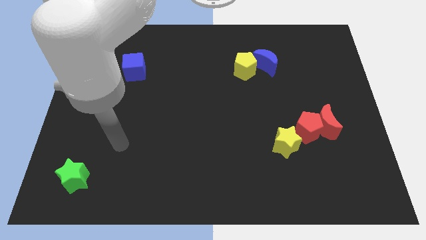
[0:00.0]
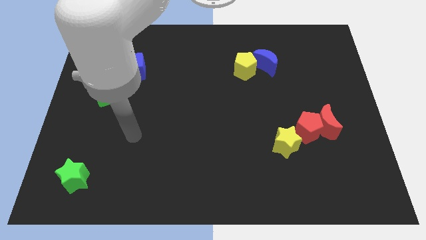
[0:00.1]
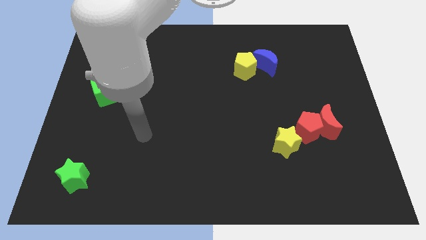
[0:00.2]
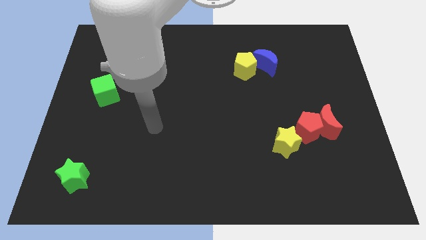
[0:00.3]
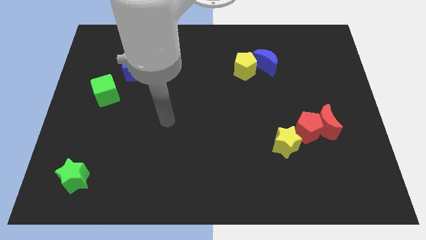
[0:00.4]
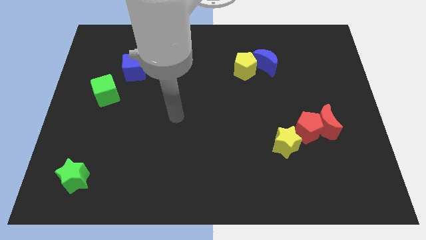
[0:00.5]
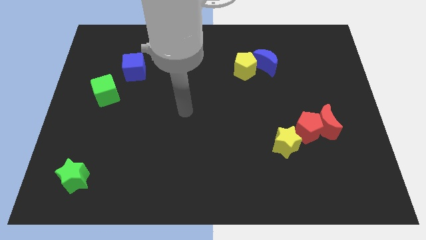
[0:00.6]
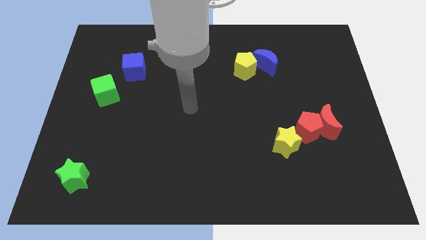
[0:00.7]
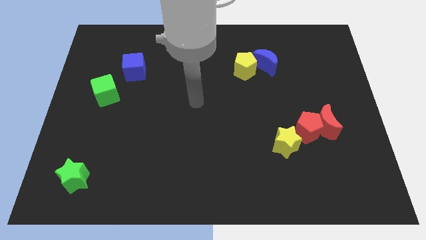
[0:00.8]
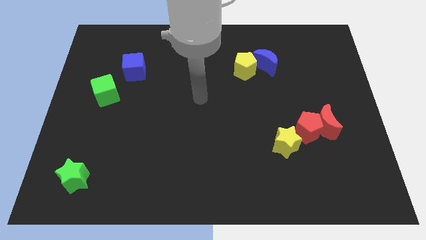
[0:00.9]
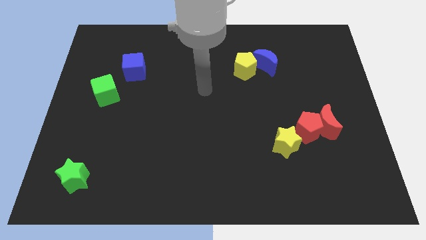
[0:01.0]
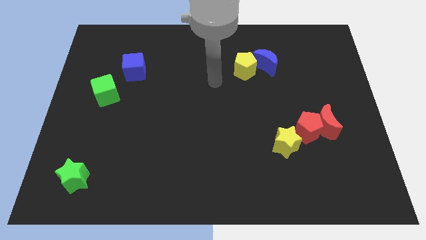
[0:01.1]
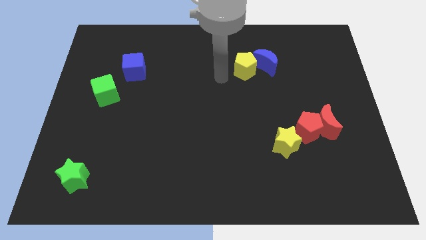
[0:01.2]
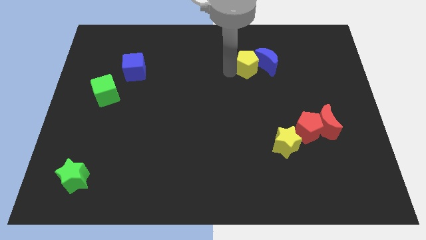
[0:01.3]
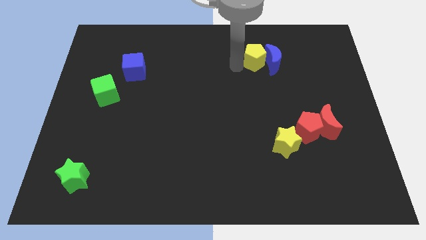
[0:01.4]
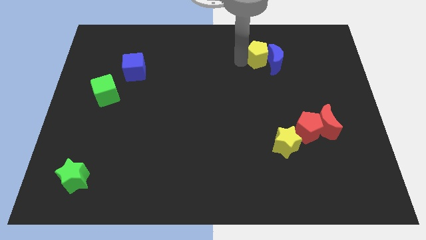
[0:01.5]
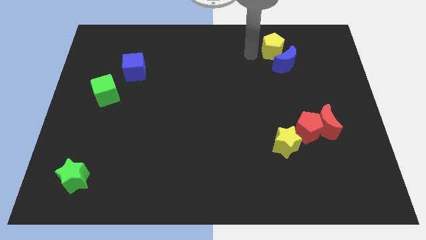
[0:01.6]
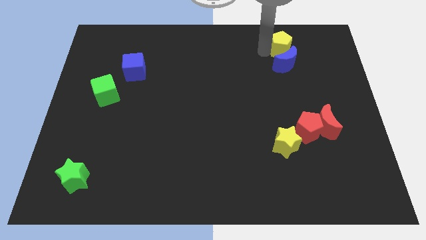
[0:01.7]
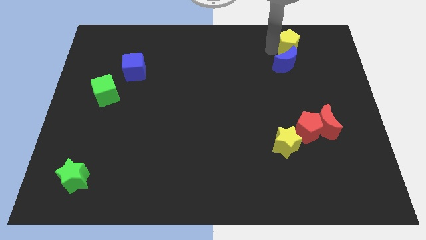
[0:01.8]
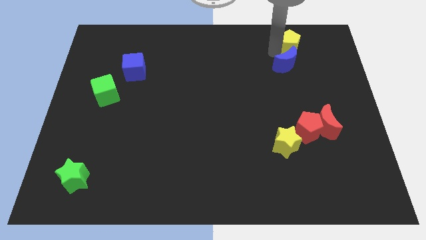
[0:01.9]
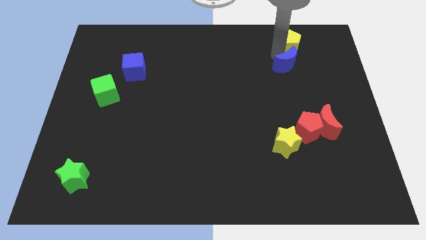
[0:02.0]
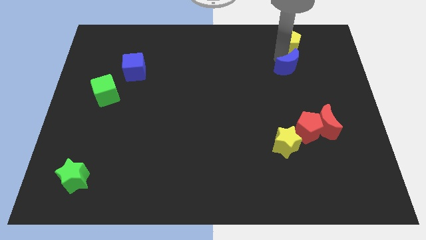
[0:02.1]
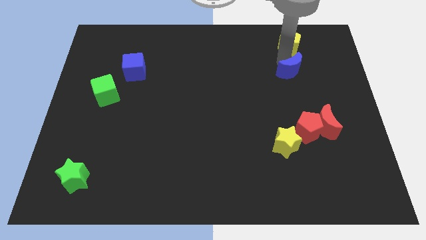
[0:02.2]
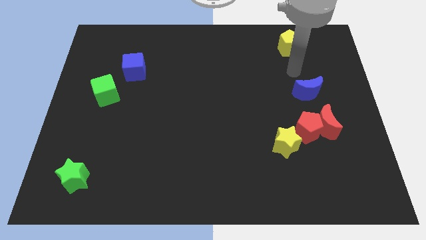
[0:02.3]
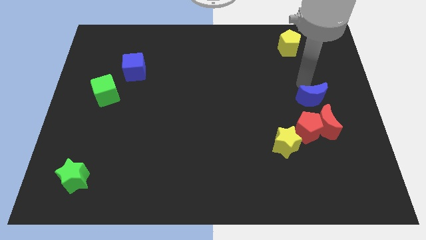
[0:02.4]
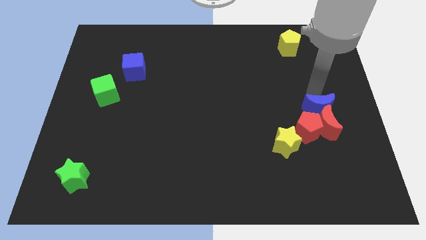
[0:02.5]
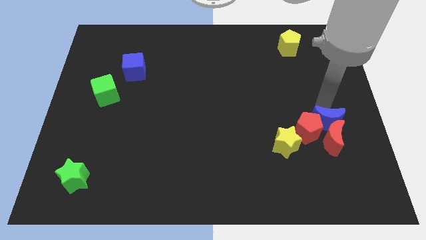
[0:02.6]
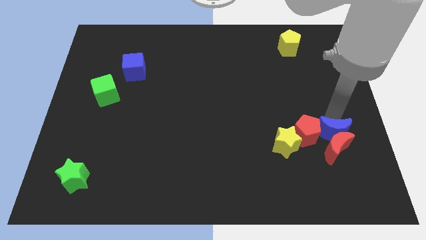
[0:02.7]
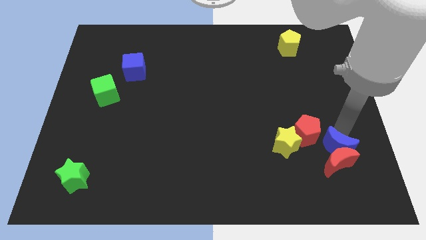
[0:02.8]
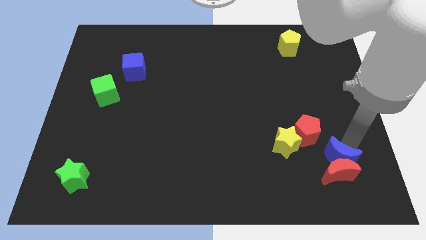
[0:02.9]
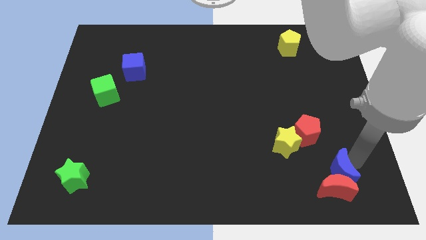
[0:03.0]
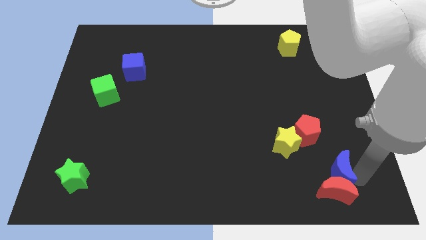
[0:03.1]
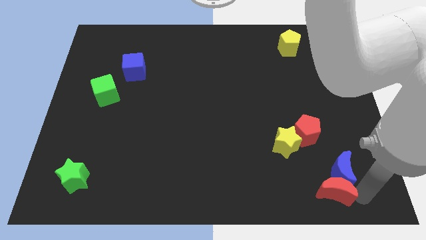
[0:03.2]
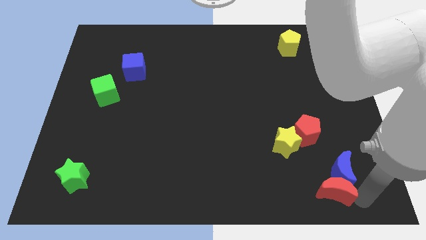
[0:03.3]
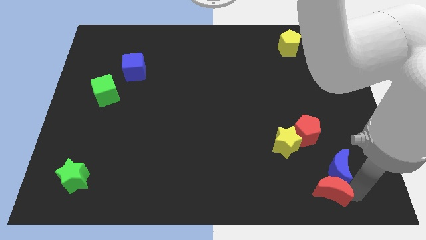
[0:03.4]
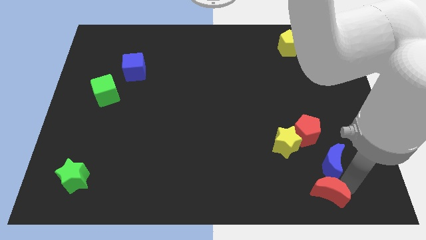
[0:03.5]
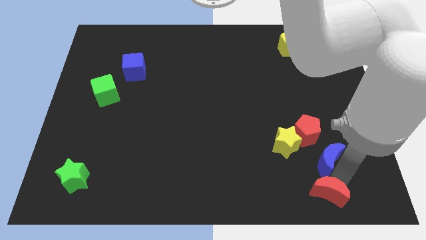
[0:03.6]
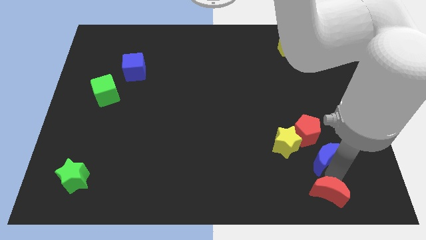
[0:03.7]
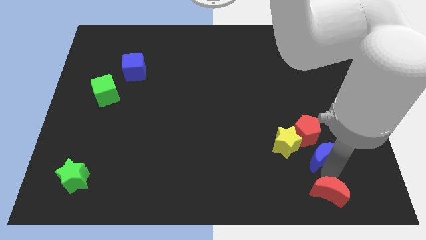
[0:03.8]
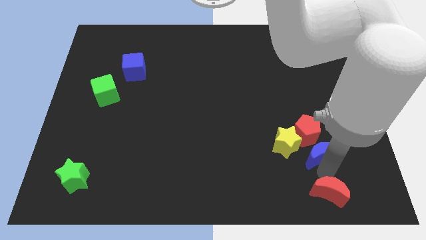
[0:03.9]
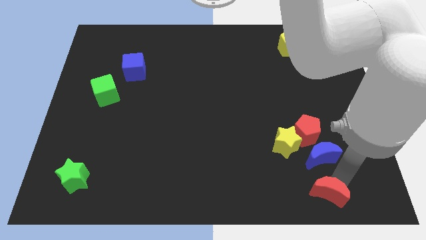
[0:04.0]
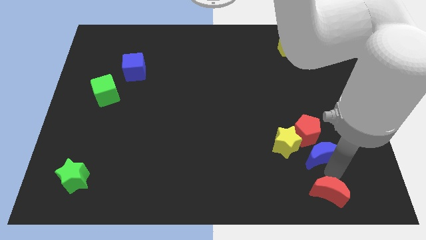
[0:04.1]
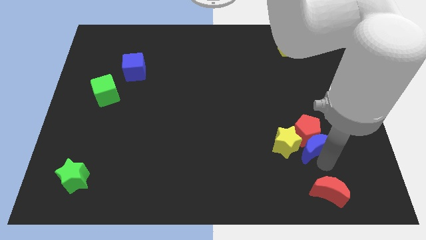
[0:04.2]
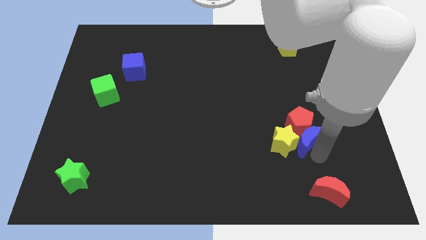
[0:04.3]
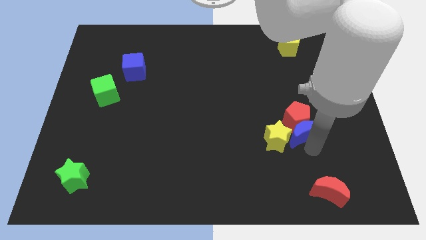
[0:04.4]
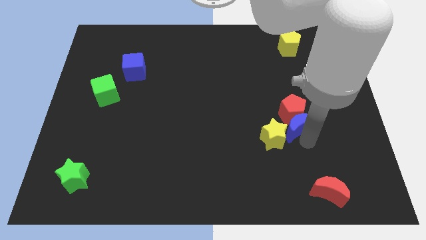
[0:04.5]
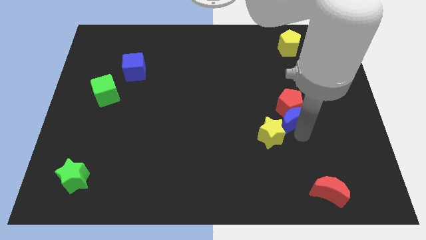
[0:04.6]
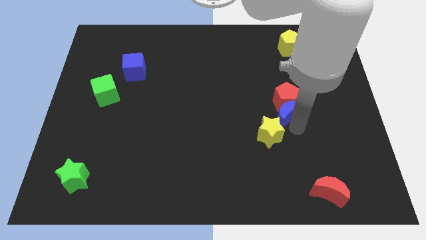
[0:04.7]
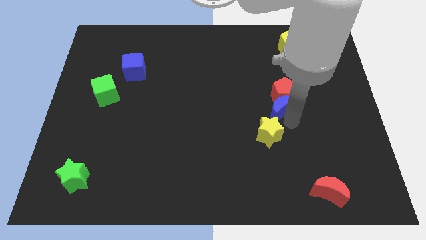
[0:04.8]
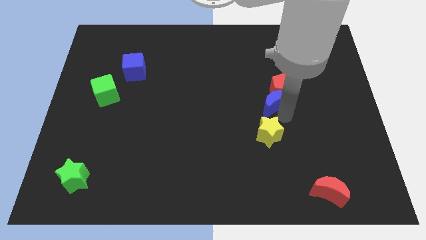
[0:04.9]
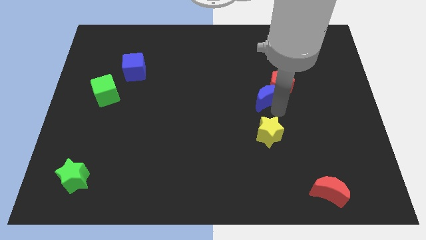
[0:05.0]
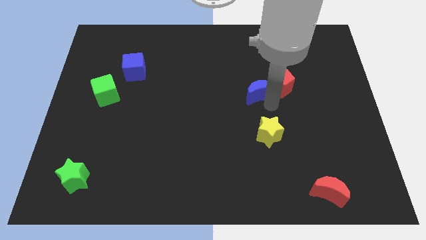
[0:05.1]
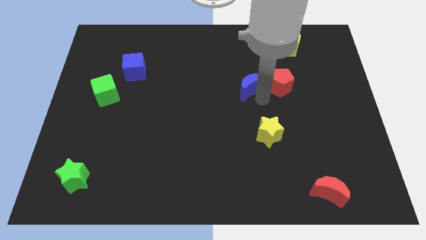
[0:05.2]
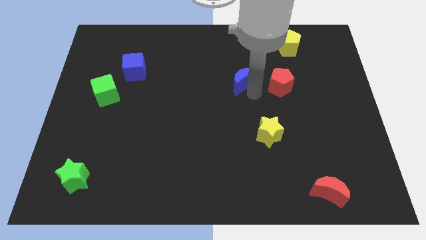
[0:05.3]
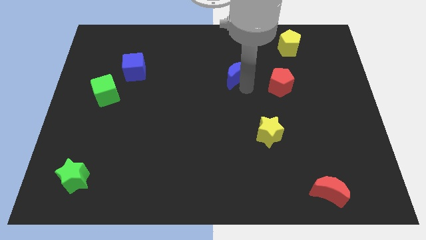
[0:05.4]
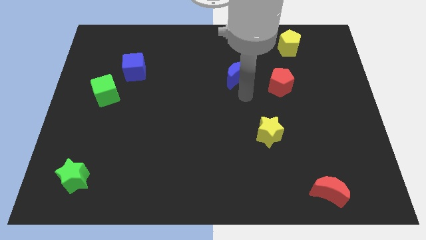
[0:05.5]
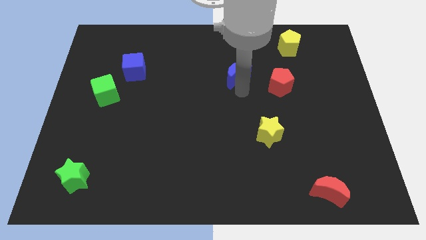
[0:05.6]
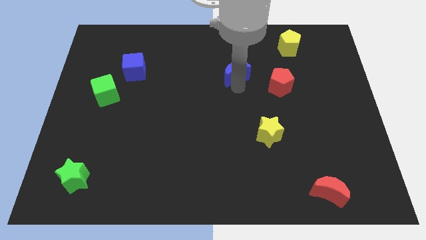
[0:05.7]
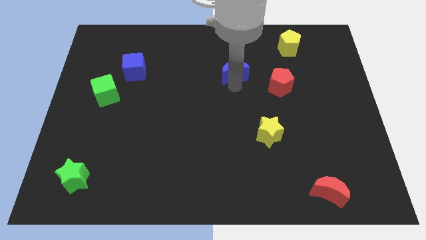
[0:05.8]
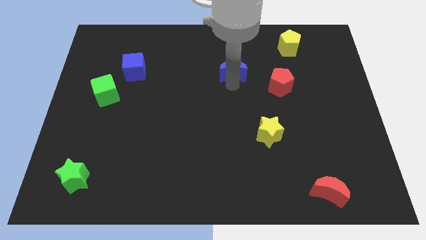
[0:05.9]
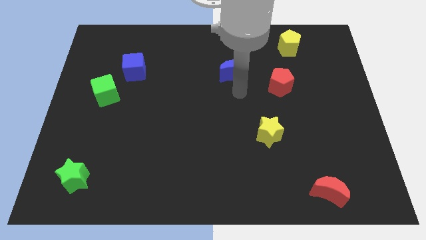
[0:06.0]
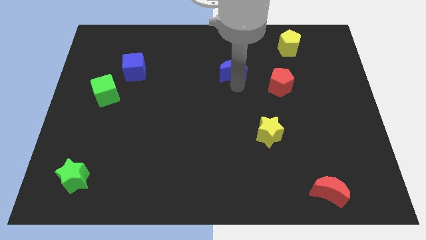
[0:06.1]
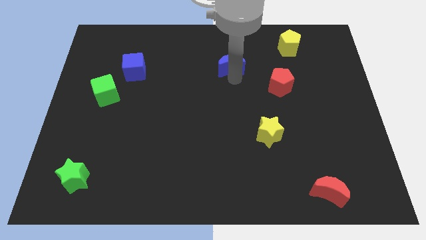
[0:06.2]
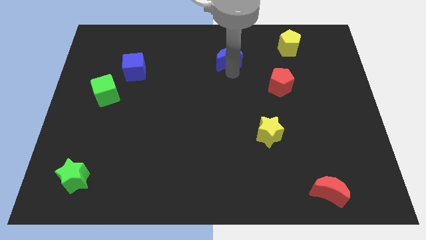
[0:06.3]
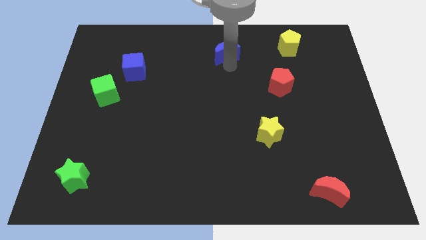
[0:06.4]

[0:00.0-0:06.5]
put the blue moon to the towards your base
